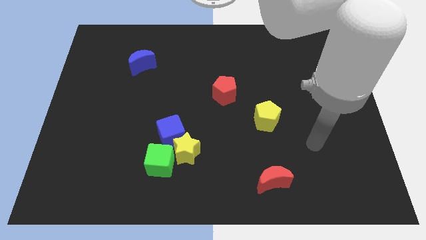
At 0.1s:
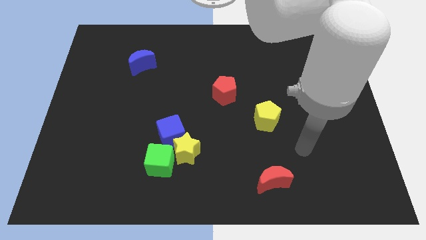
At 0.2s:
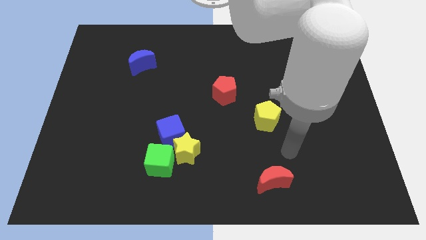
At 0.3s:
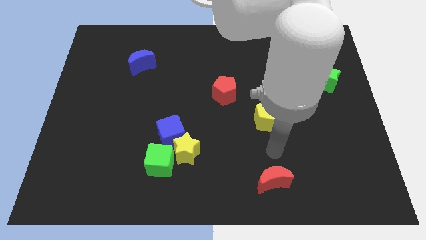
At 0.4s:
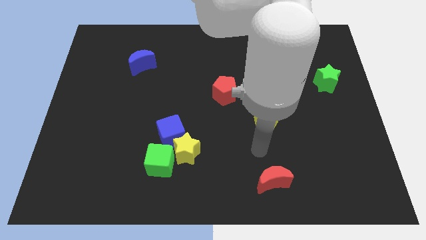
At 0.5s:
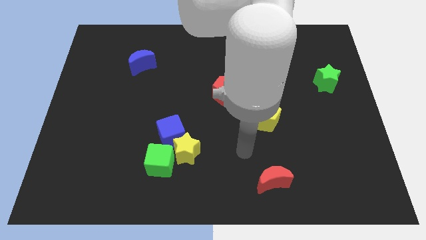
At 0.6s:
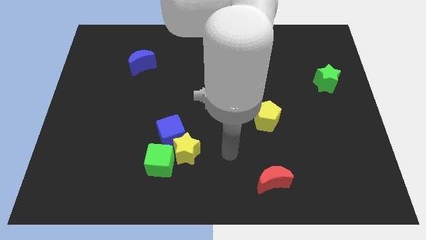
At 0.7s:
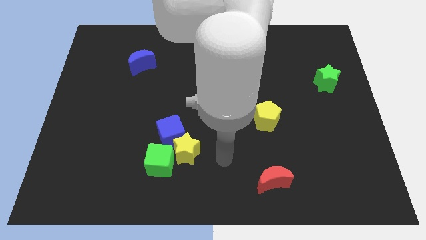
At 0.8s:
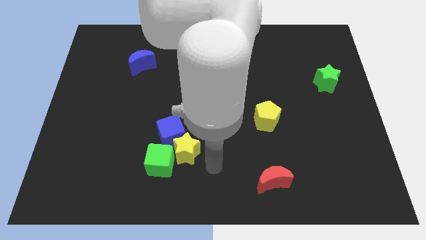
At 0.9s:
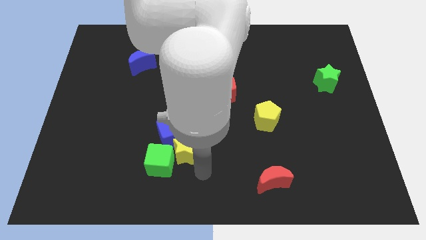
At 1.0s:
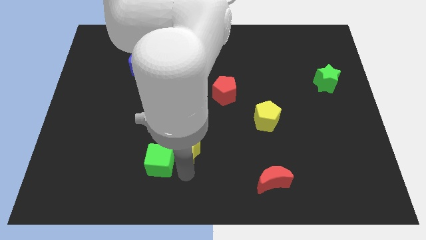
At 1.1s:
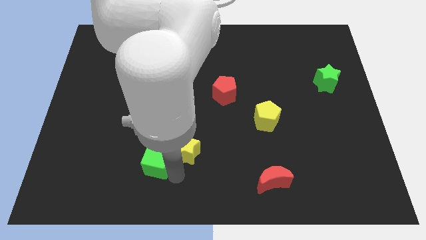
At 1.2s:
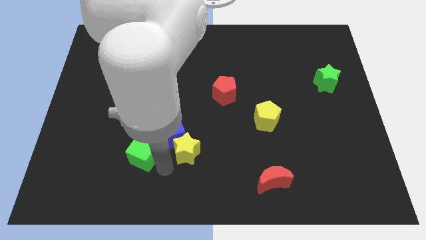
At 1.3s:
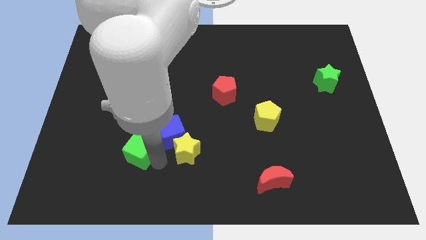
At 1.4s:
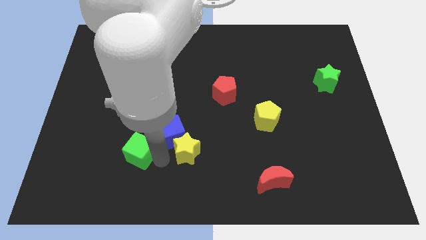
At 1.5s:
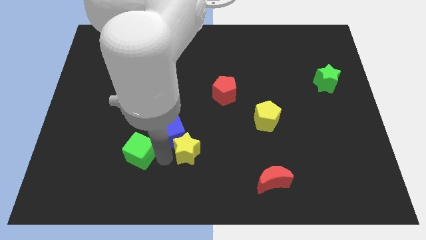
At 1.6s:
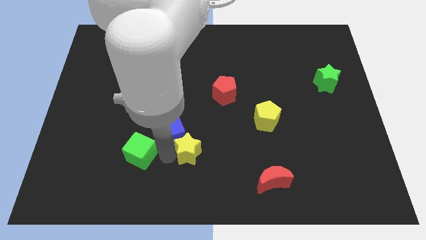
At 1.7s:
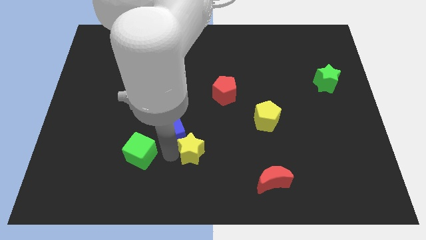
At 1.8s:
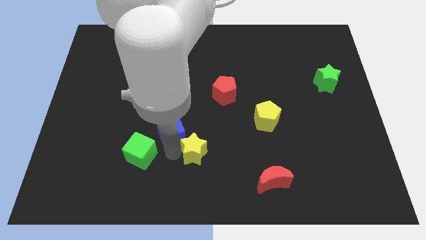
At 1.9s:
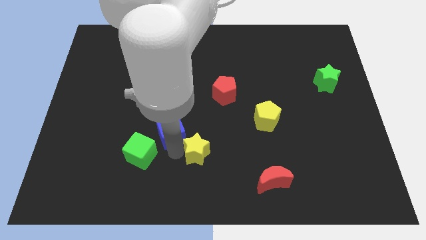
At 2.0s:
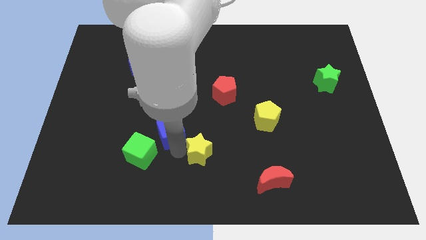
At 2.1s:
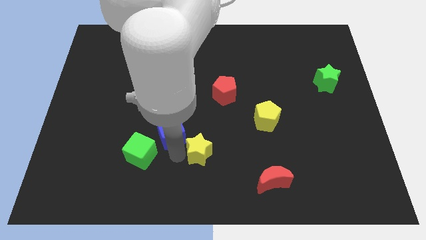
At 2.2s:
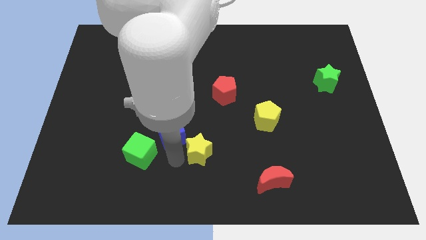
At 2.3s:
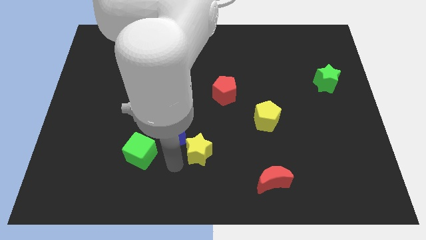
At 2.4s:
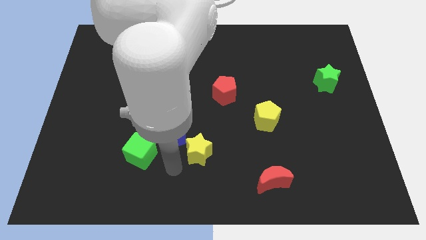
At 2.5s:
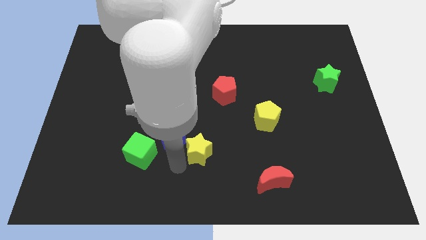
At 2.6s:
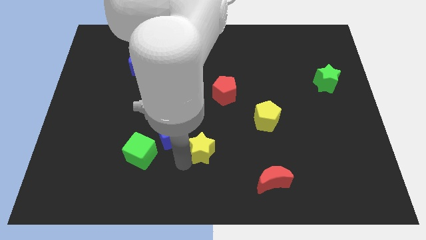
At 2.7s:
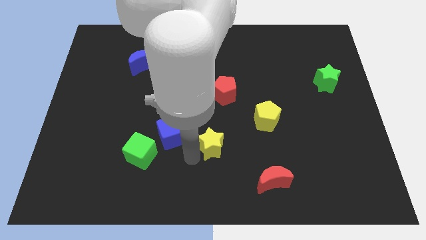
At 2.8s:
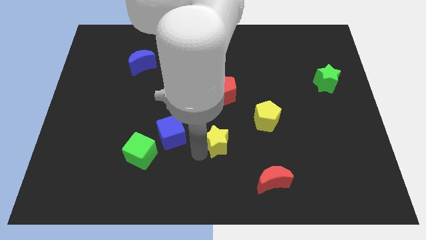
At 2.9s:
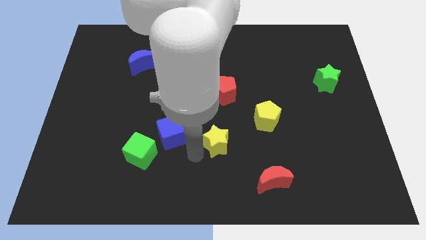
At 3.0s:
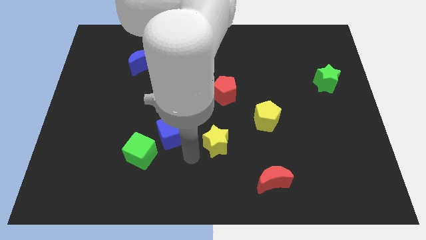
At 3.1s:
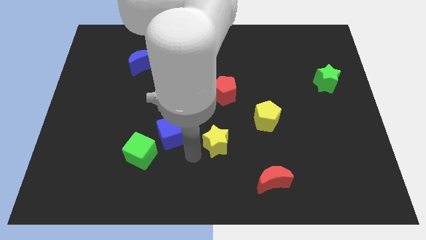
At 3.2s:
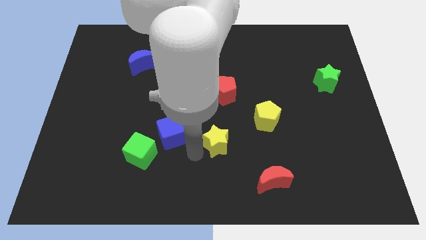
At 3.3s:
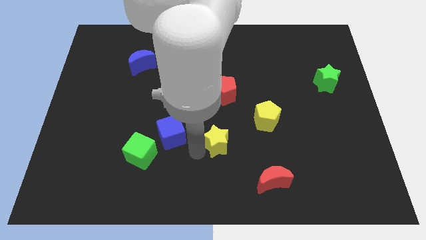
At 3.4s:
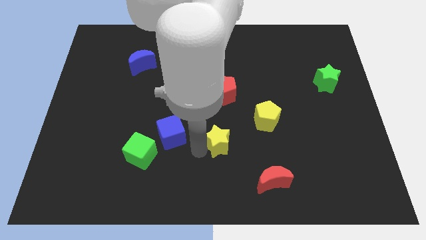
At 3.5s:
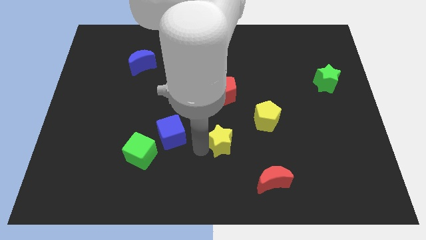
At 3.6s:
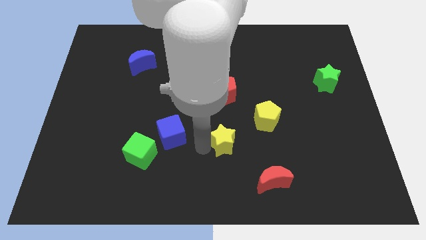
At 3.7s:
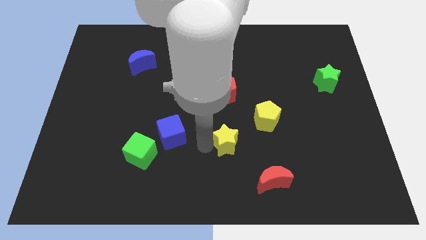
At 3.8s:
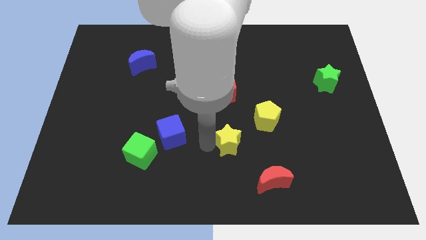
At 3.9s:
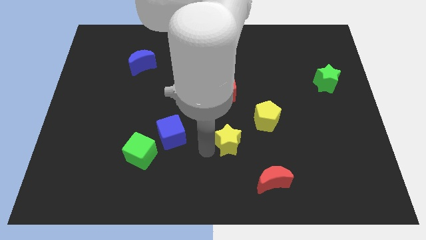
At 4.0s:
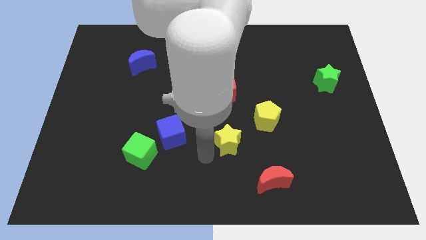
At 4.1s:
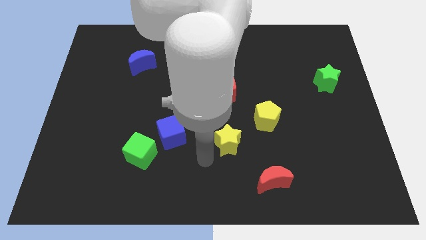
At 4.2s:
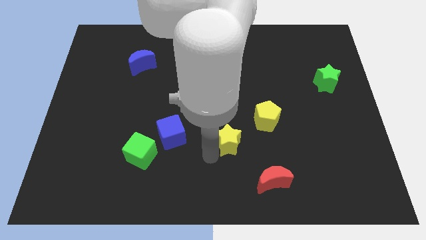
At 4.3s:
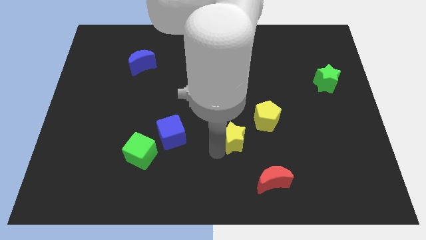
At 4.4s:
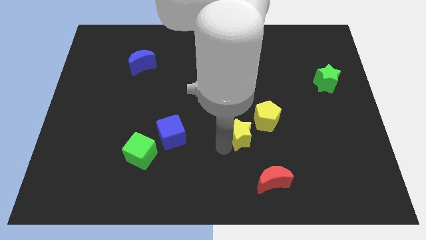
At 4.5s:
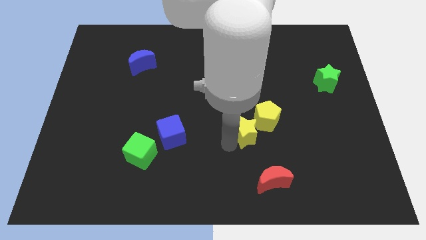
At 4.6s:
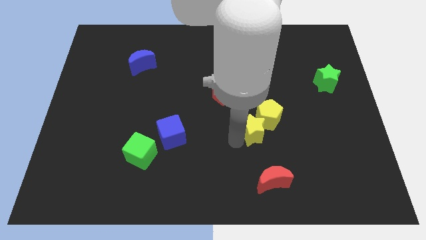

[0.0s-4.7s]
push the yellow star close to the yellow pentagon

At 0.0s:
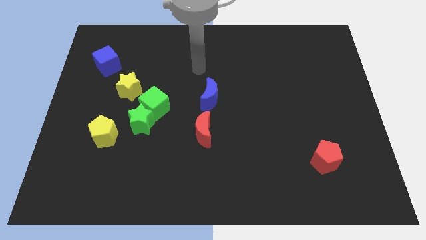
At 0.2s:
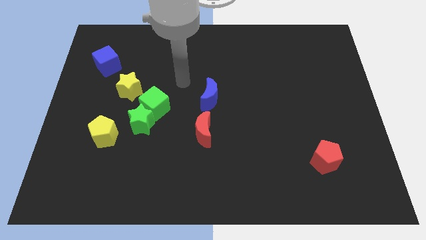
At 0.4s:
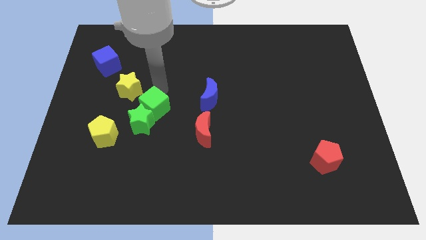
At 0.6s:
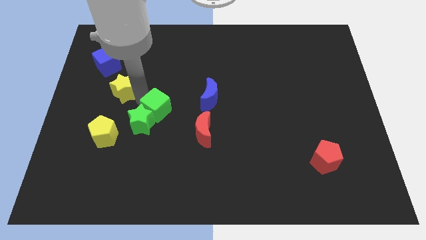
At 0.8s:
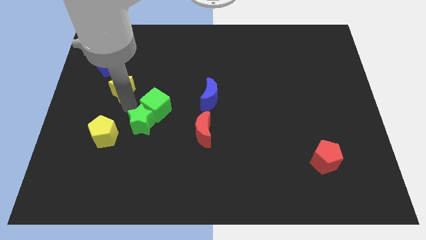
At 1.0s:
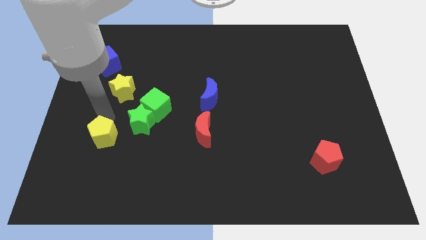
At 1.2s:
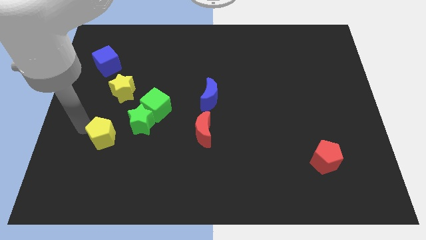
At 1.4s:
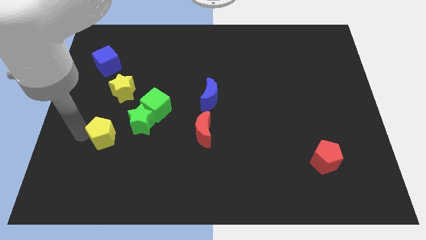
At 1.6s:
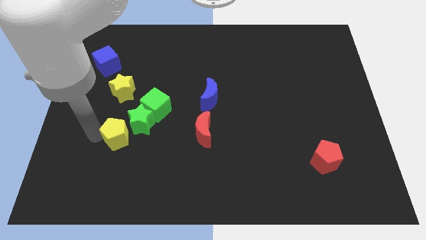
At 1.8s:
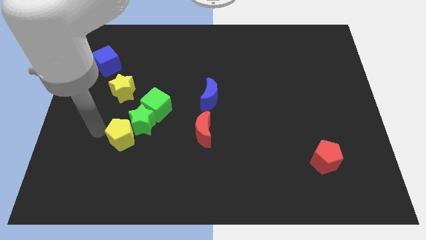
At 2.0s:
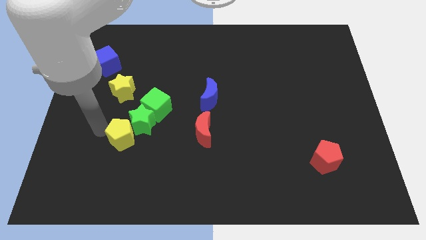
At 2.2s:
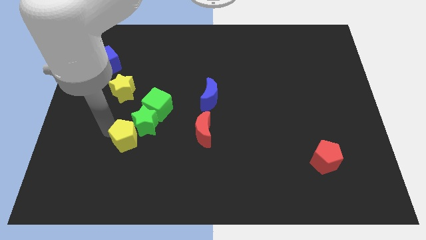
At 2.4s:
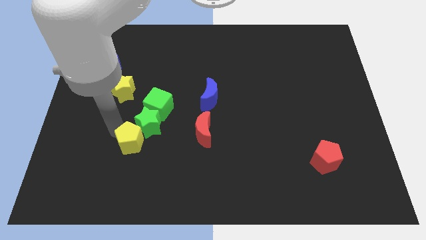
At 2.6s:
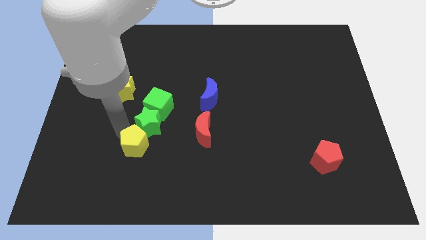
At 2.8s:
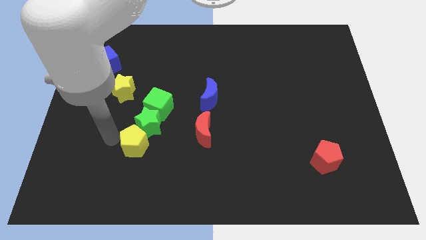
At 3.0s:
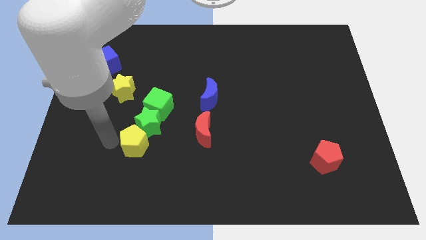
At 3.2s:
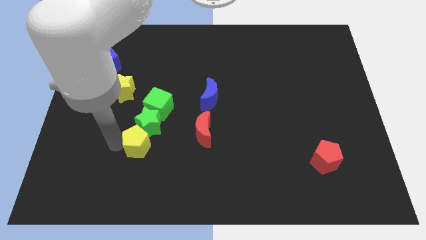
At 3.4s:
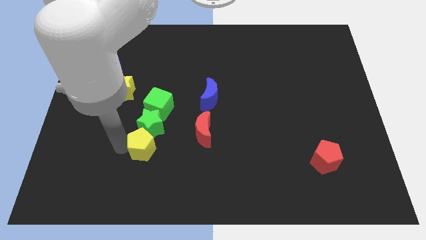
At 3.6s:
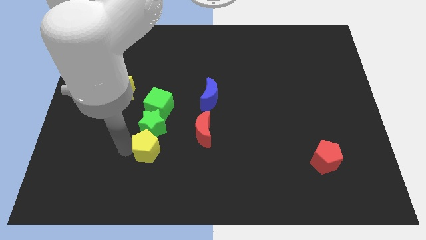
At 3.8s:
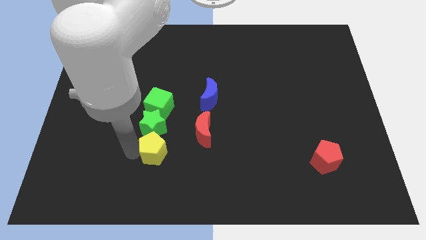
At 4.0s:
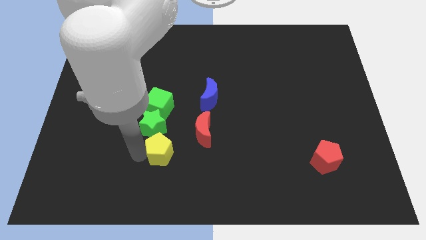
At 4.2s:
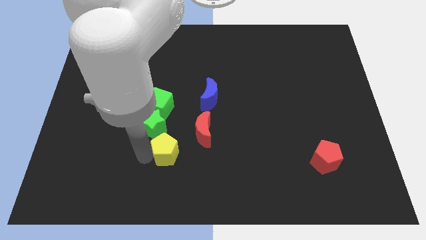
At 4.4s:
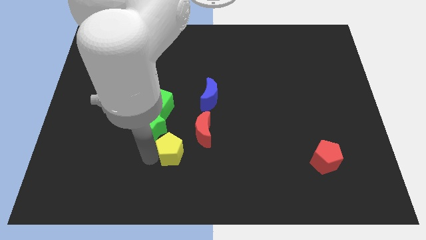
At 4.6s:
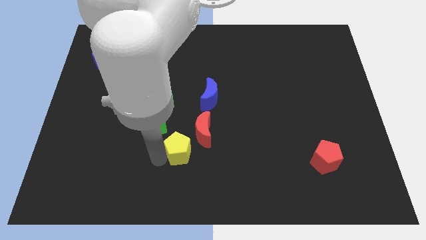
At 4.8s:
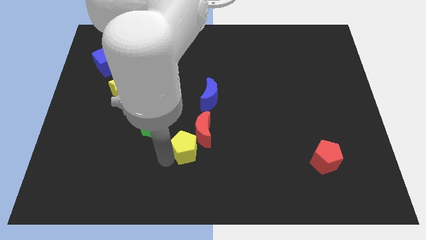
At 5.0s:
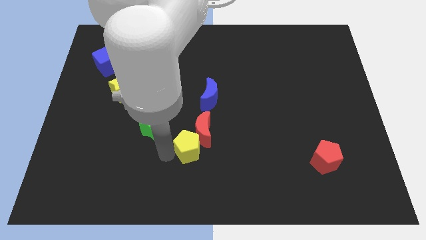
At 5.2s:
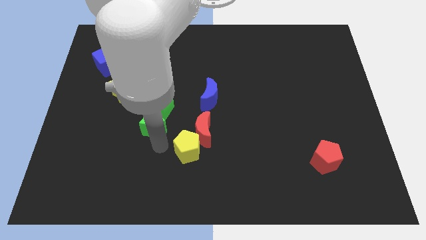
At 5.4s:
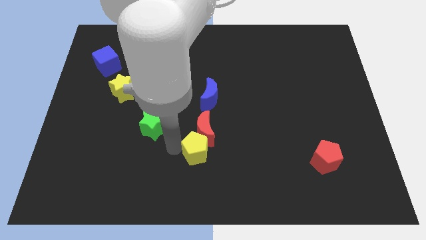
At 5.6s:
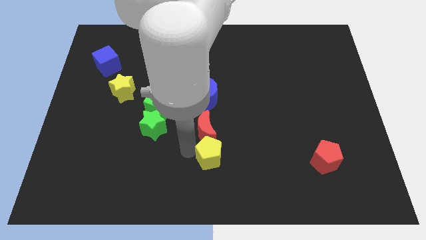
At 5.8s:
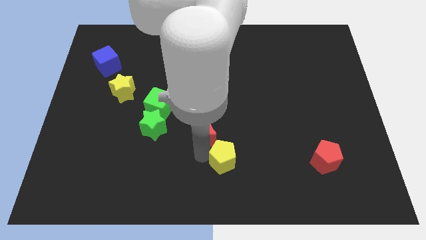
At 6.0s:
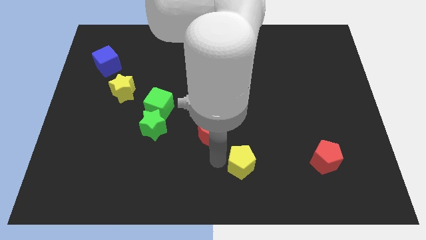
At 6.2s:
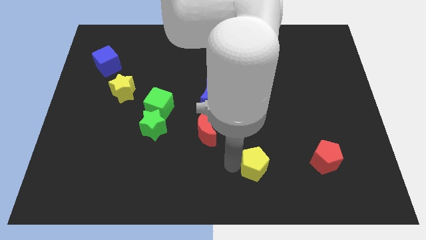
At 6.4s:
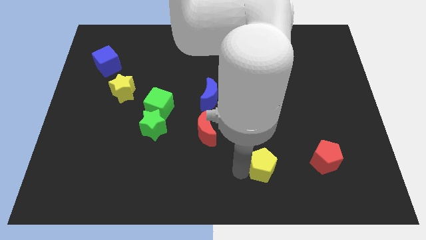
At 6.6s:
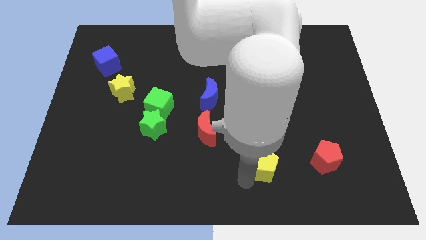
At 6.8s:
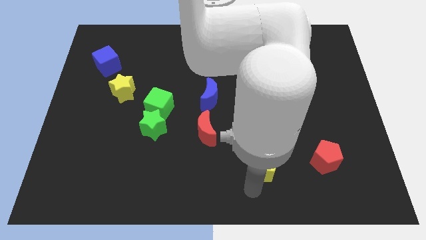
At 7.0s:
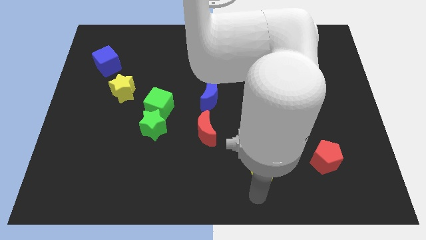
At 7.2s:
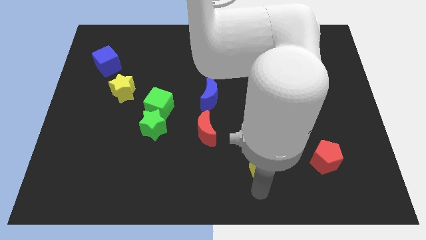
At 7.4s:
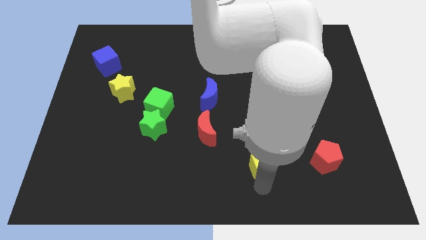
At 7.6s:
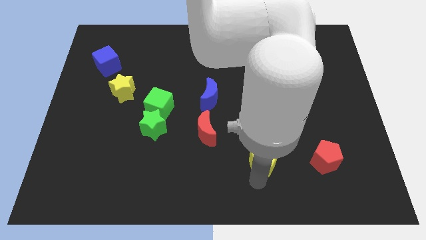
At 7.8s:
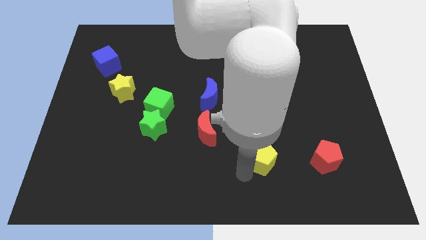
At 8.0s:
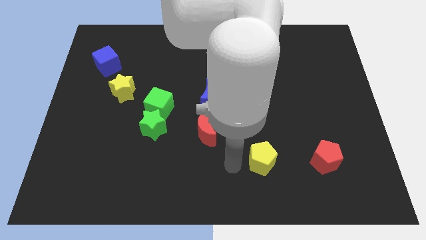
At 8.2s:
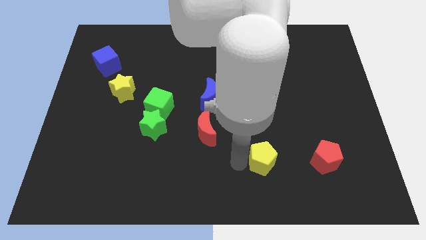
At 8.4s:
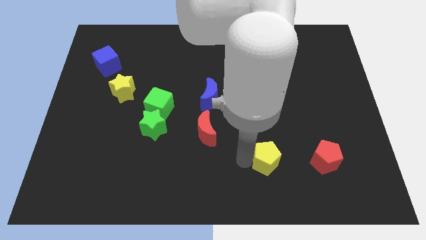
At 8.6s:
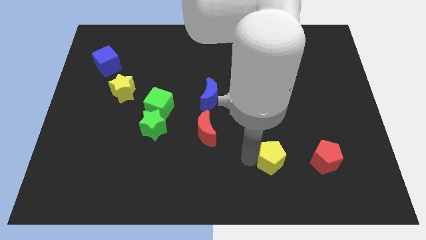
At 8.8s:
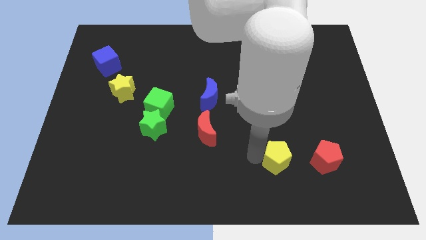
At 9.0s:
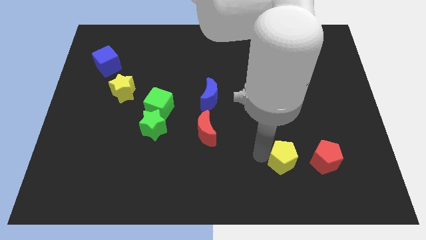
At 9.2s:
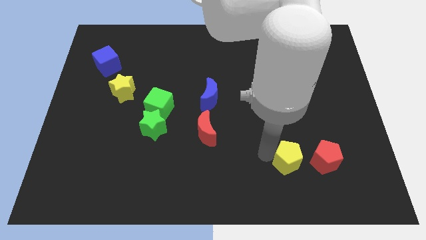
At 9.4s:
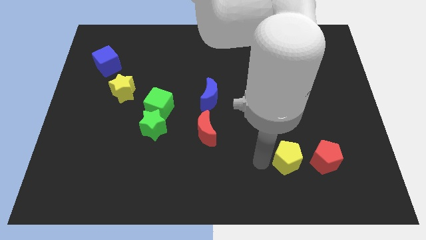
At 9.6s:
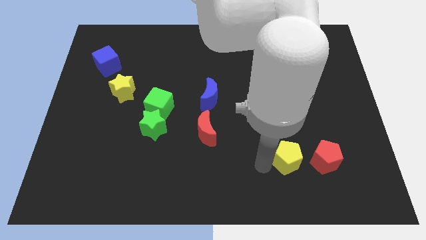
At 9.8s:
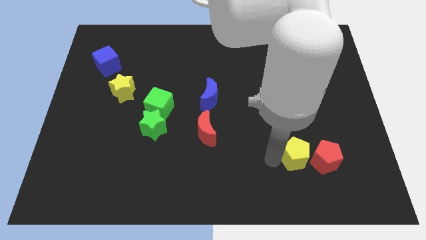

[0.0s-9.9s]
move the yellow pentagon towards the red pentagon
